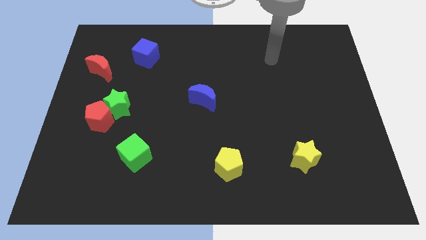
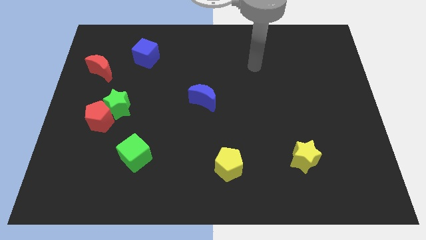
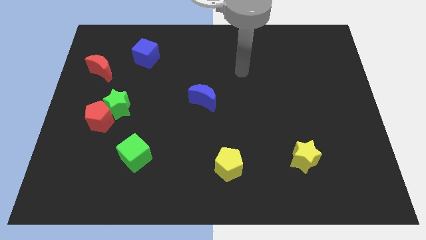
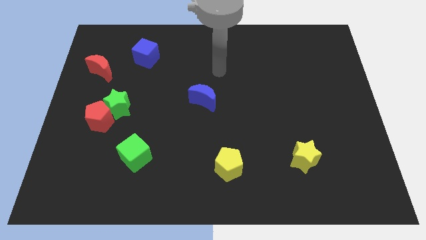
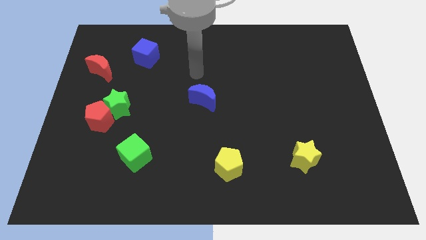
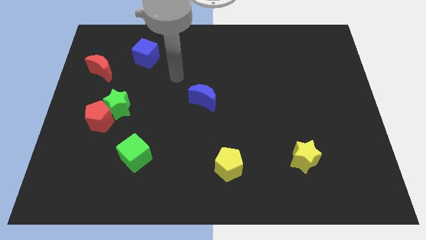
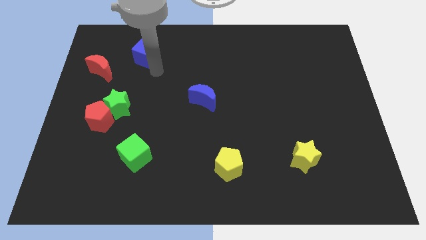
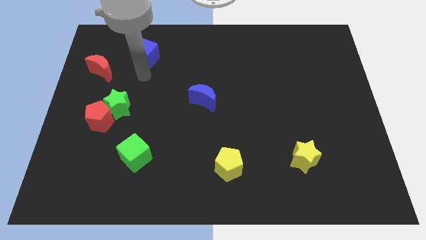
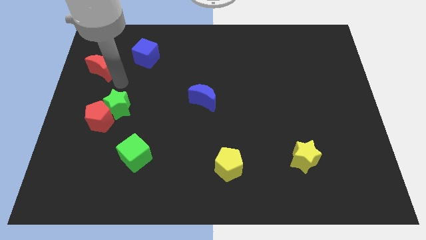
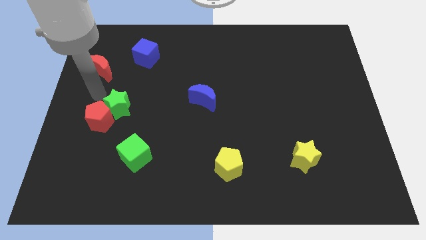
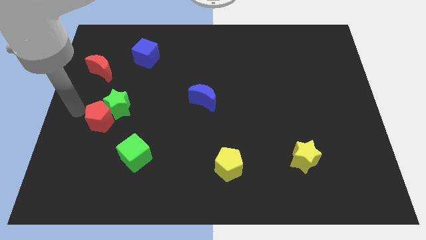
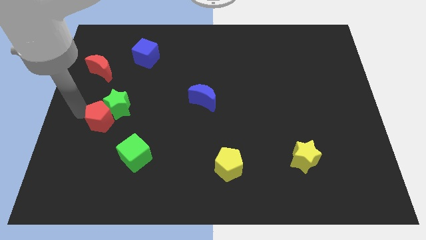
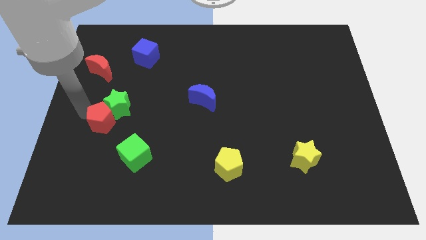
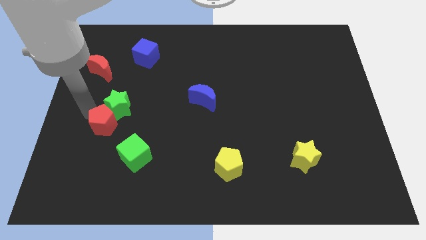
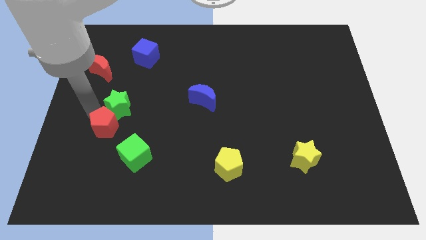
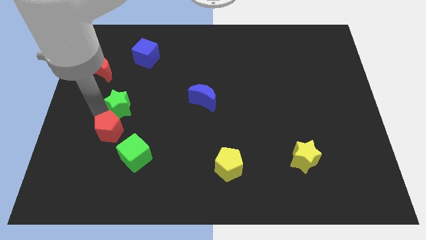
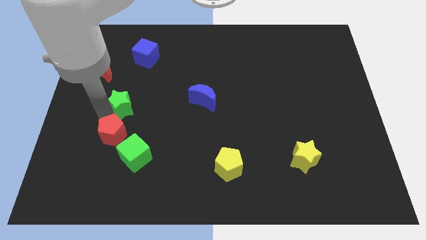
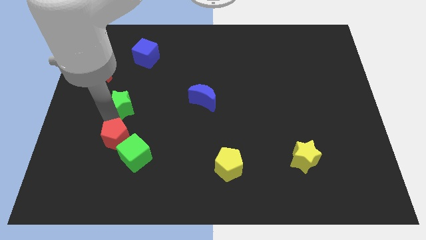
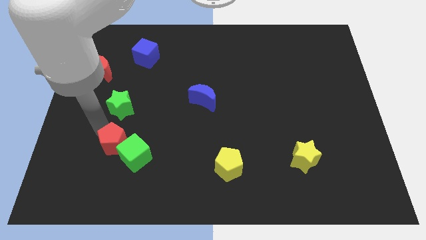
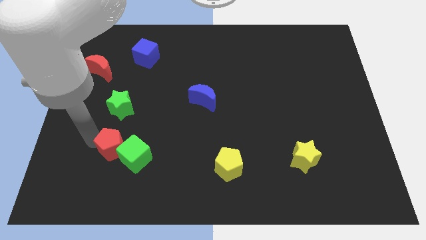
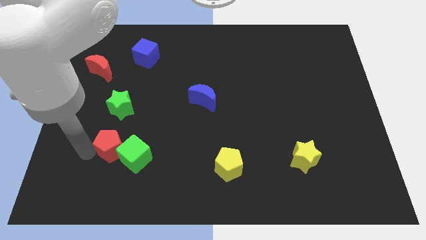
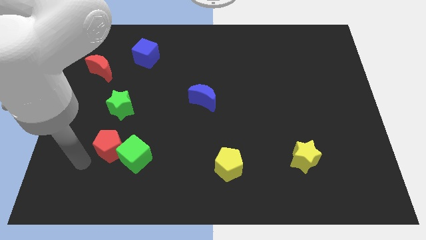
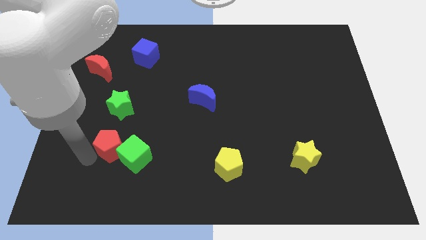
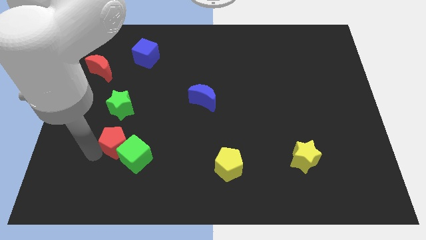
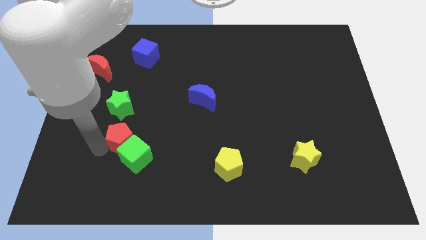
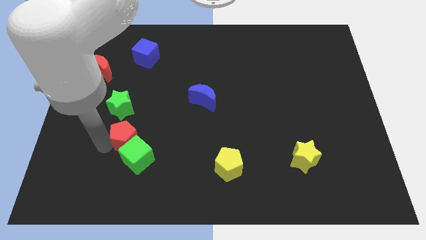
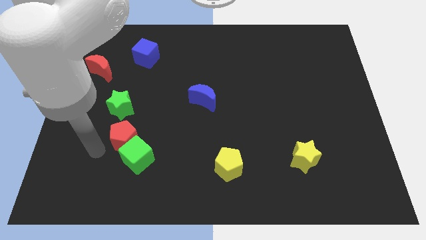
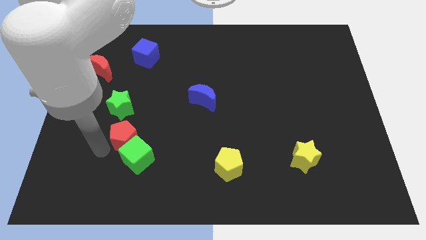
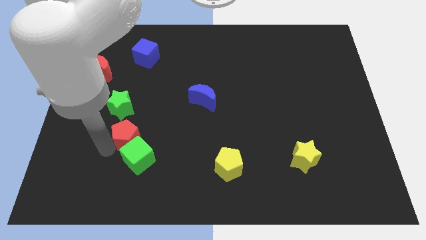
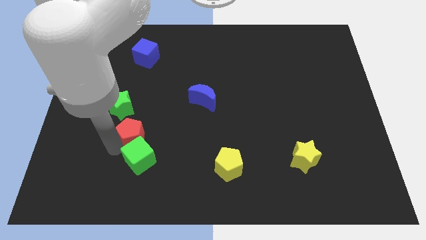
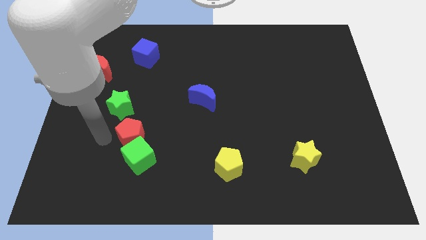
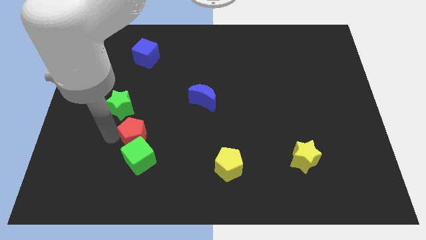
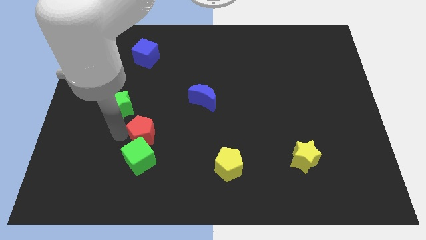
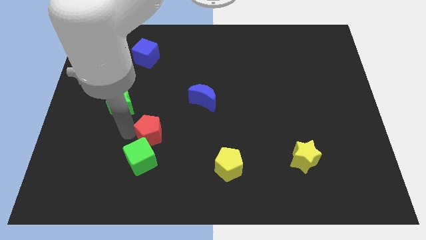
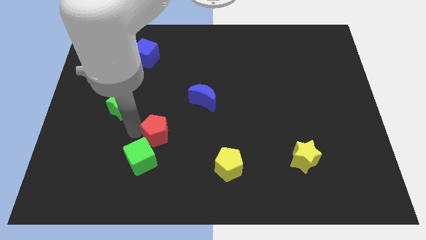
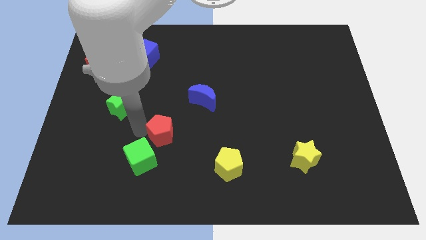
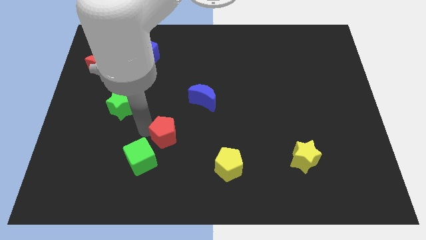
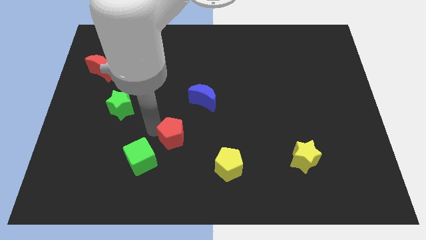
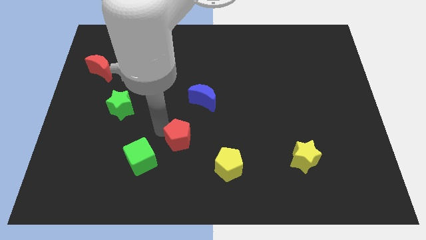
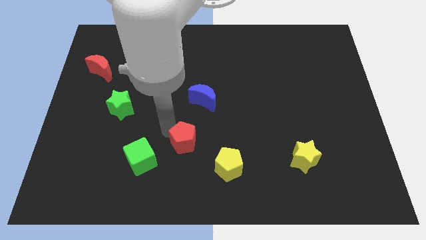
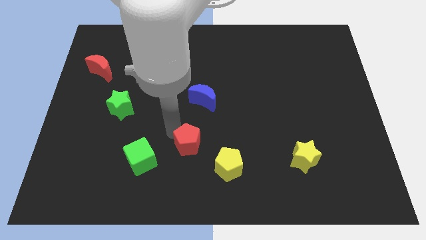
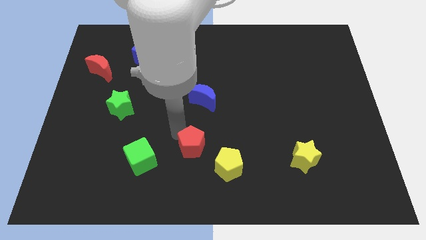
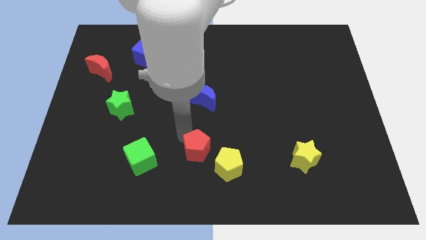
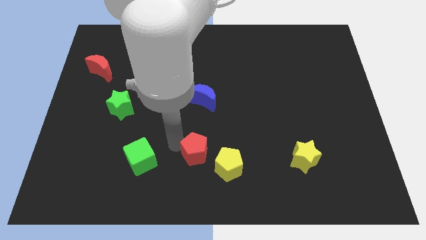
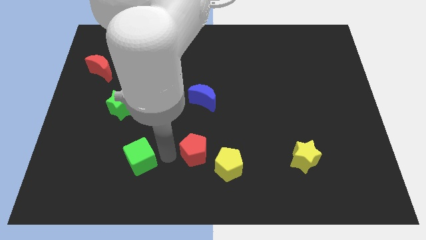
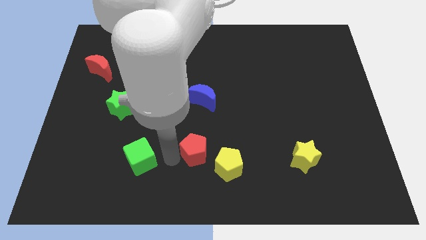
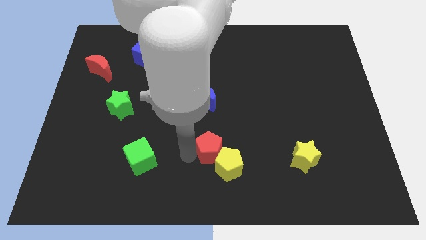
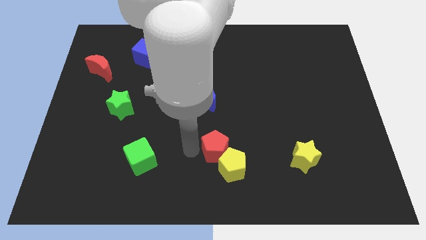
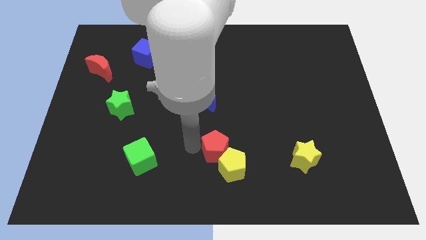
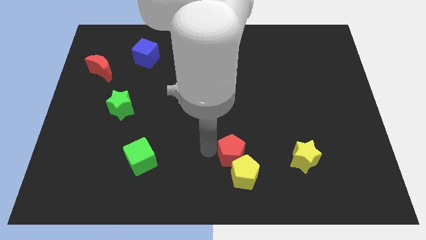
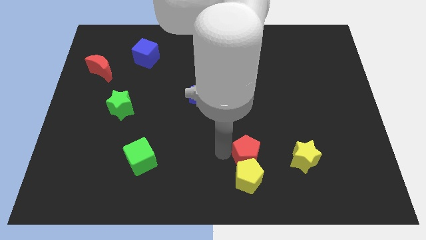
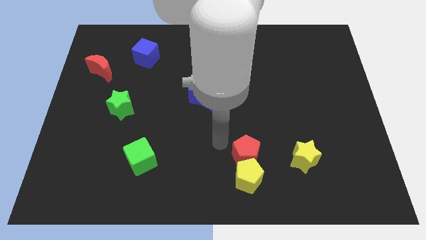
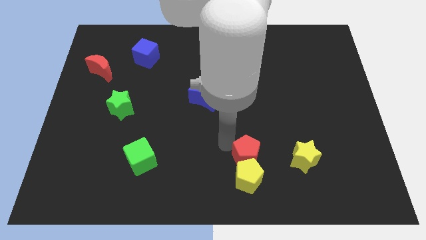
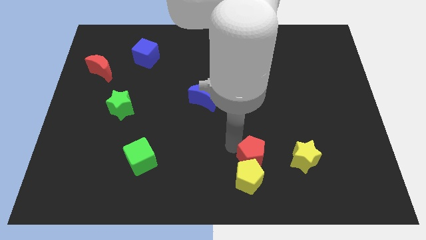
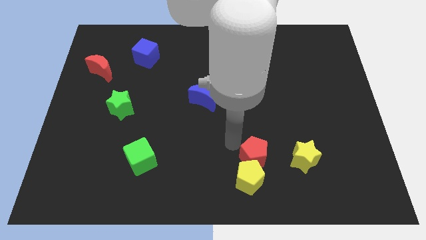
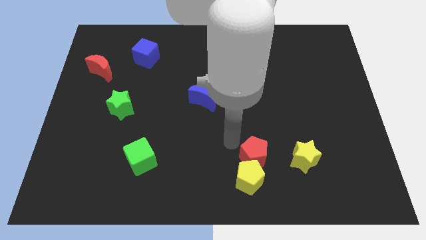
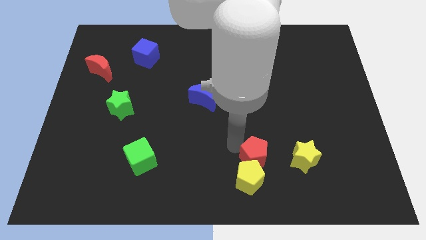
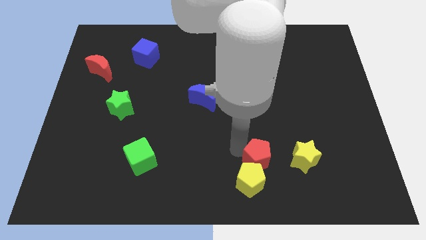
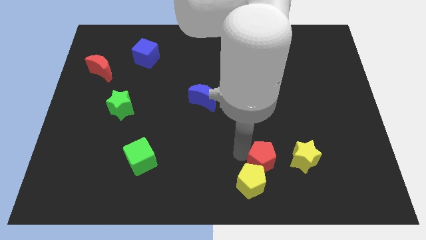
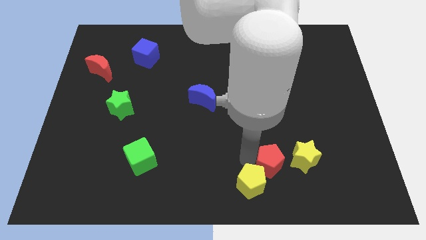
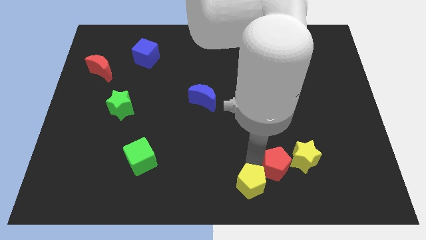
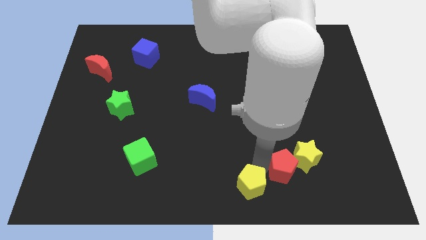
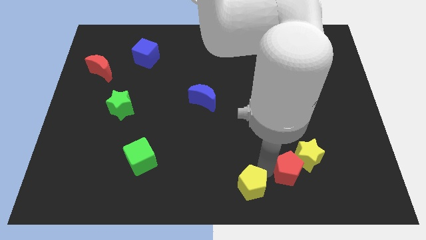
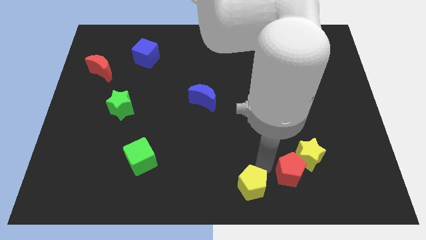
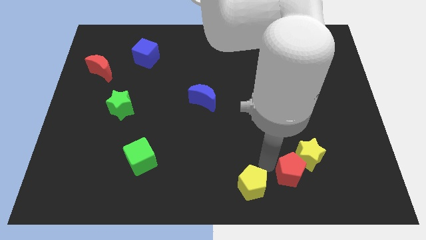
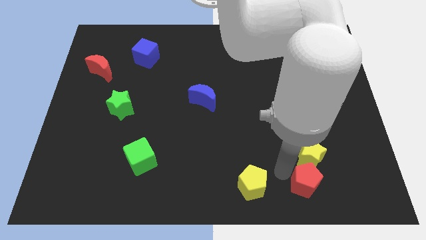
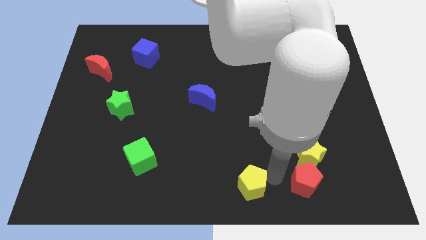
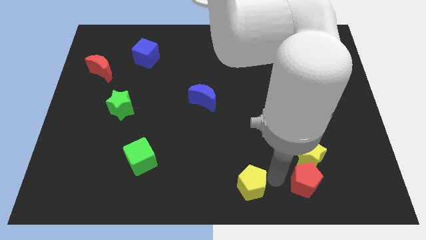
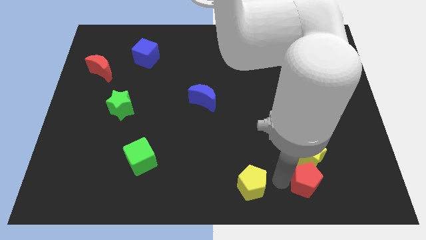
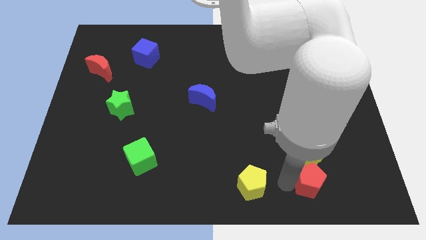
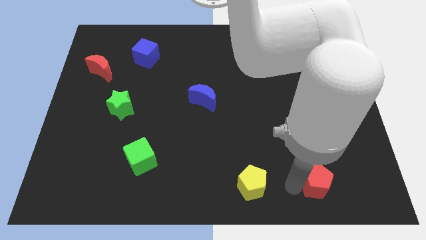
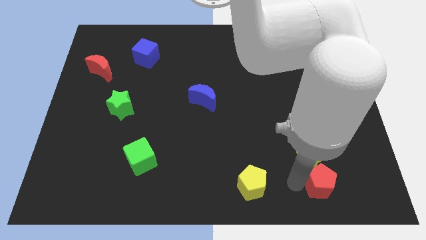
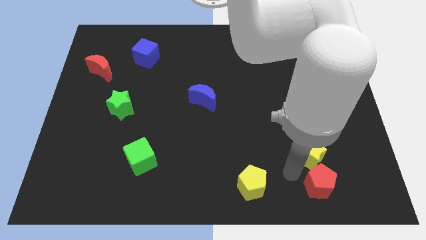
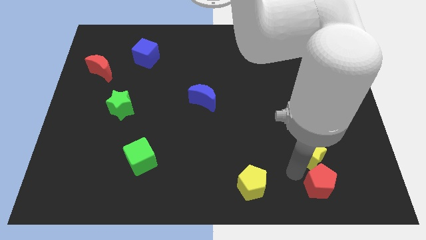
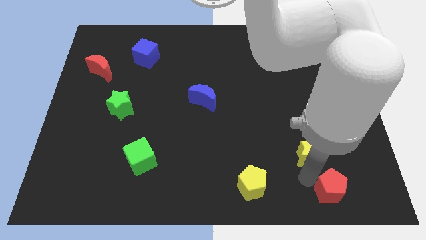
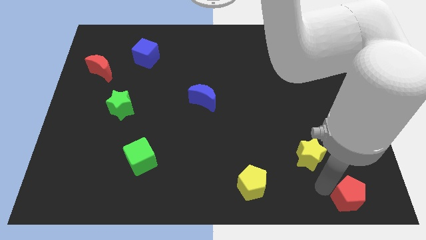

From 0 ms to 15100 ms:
push the red pentagon to the bottom right

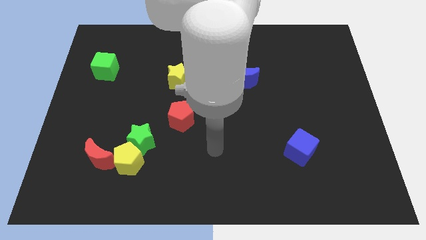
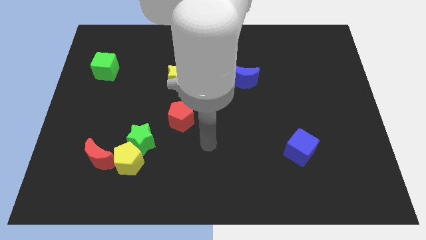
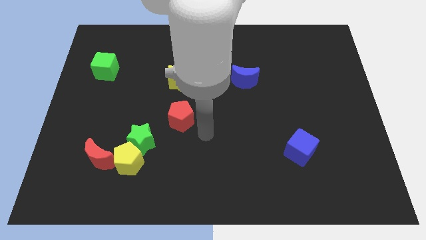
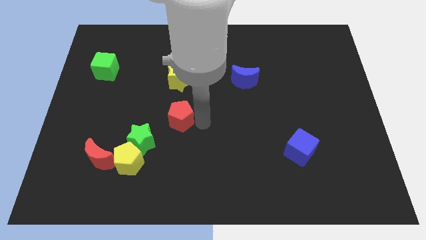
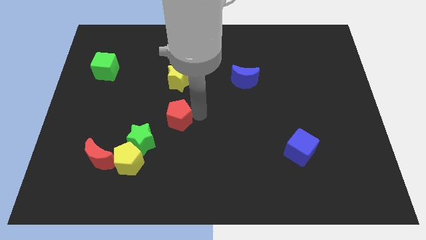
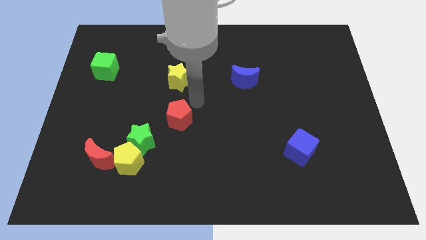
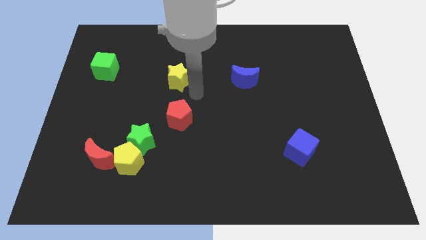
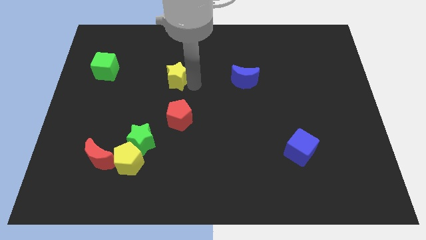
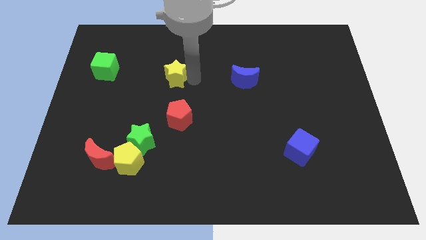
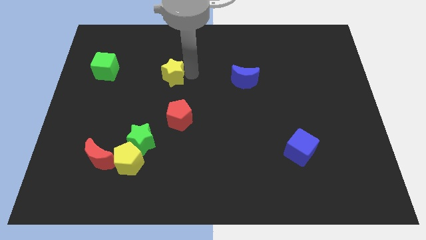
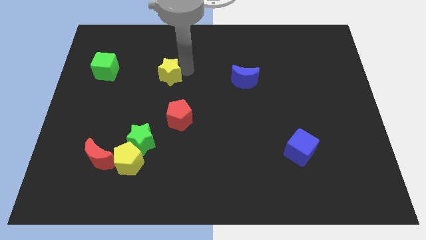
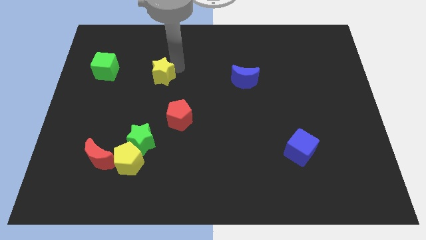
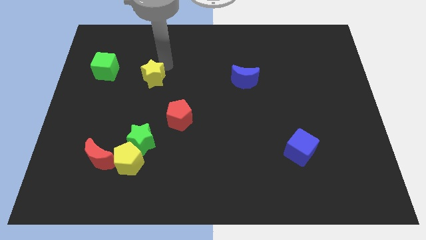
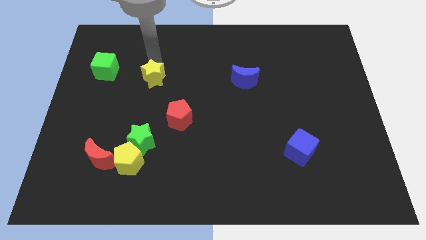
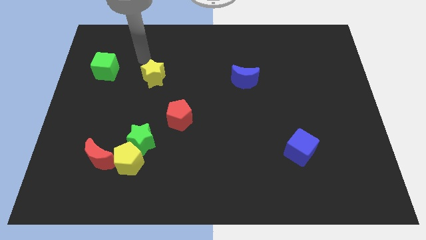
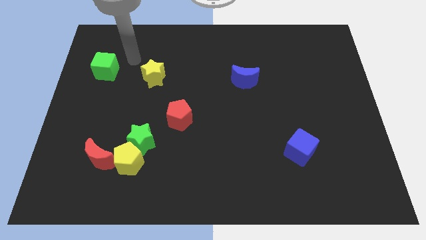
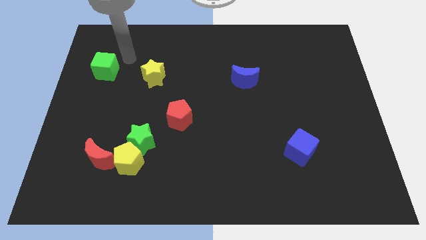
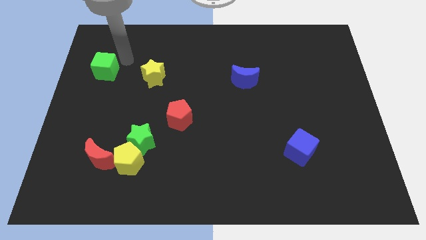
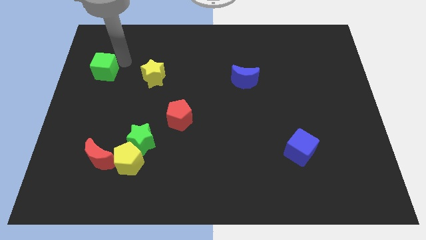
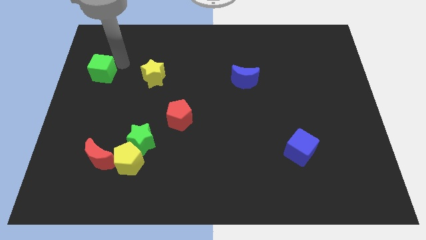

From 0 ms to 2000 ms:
put the green cube to the center left
